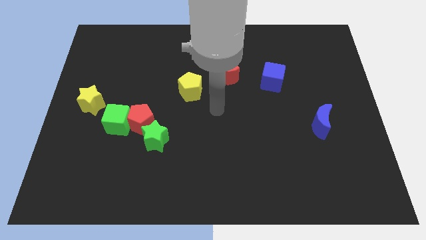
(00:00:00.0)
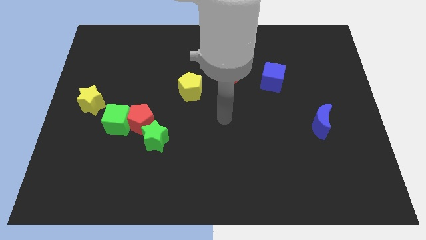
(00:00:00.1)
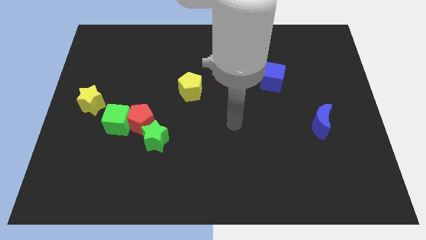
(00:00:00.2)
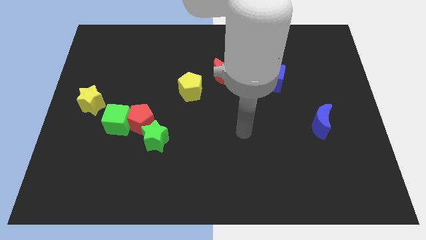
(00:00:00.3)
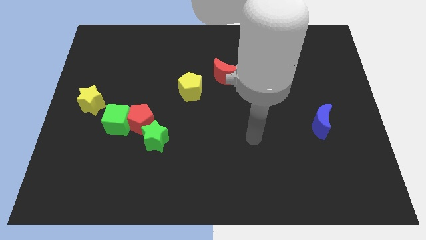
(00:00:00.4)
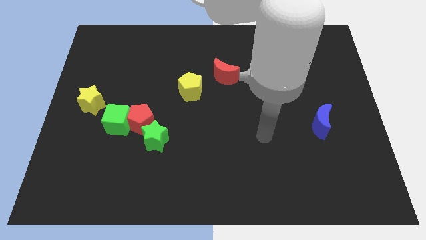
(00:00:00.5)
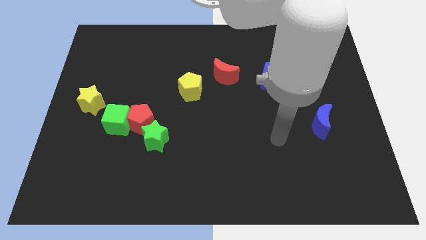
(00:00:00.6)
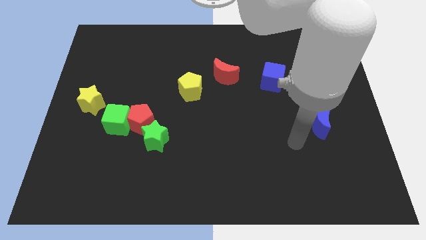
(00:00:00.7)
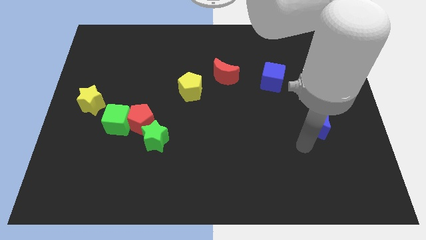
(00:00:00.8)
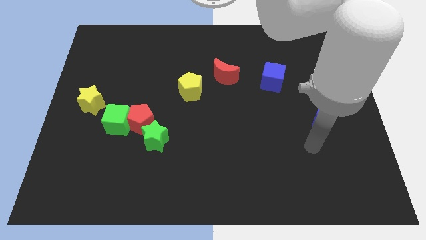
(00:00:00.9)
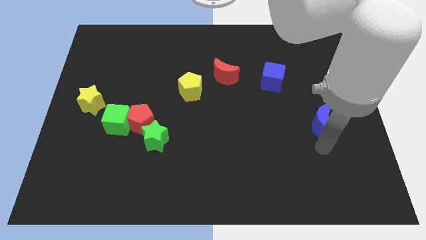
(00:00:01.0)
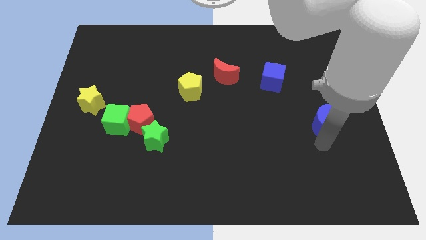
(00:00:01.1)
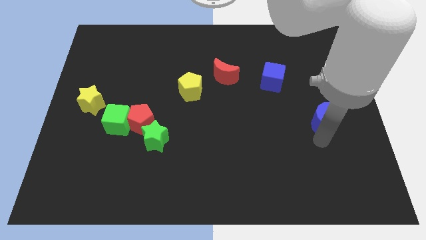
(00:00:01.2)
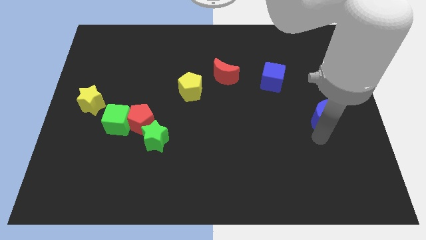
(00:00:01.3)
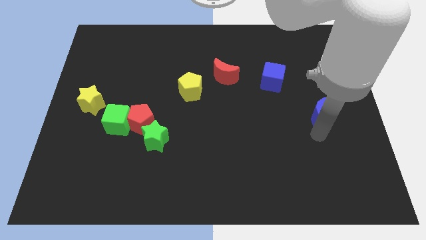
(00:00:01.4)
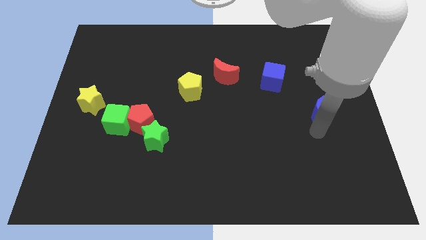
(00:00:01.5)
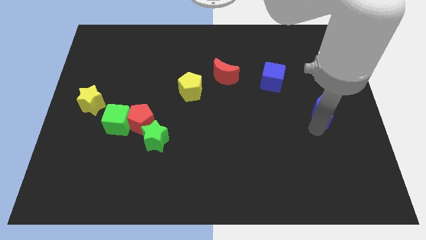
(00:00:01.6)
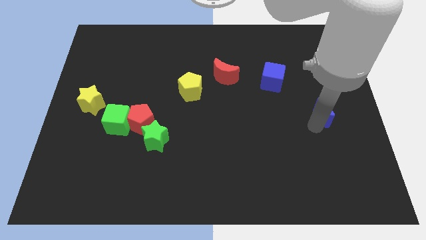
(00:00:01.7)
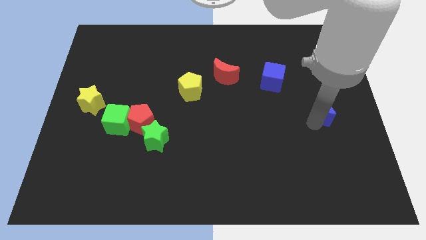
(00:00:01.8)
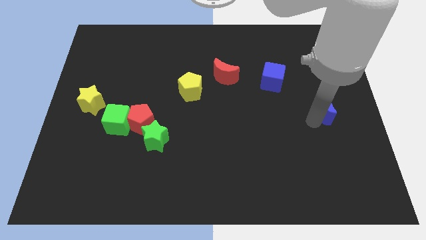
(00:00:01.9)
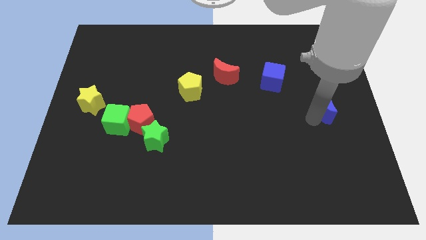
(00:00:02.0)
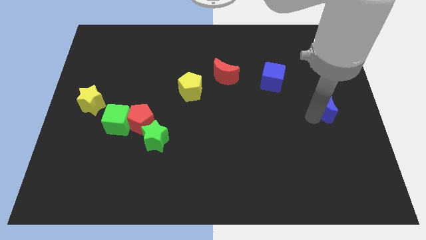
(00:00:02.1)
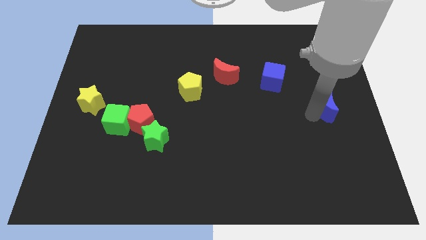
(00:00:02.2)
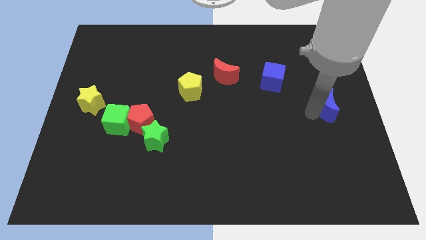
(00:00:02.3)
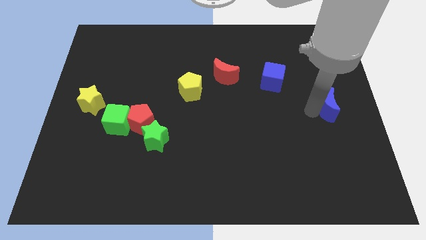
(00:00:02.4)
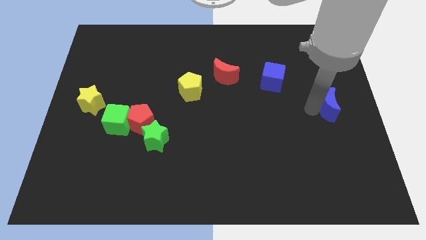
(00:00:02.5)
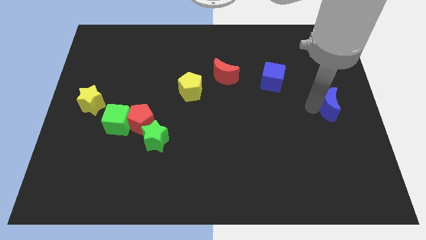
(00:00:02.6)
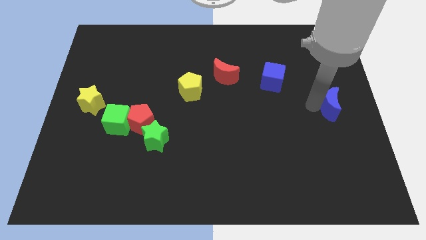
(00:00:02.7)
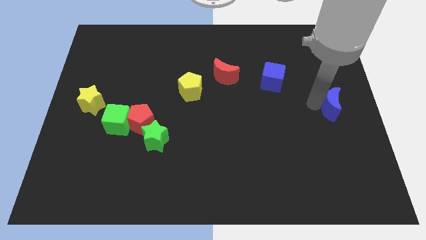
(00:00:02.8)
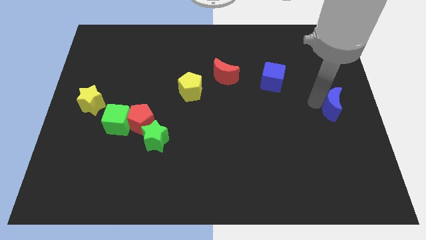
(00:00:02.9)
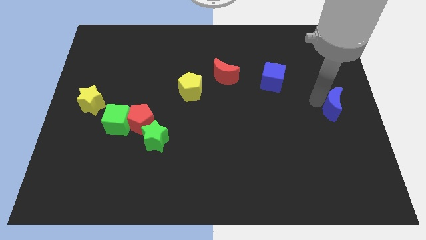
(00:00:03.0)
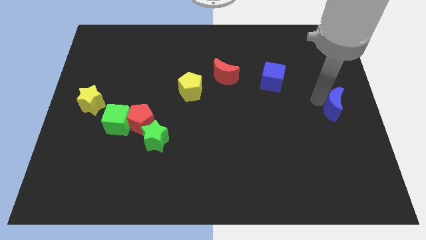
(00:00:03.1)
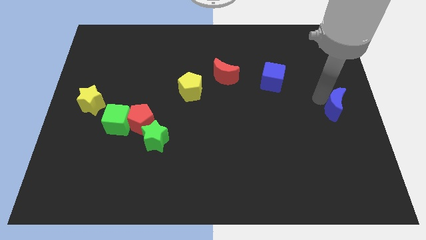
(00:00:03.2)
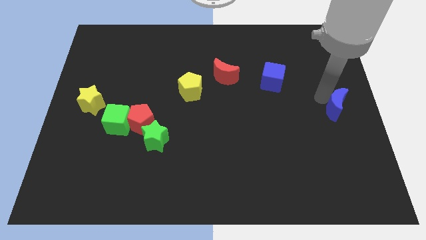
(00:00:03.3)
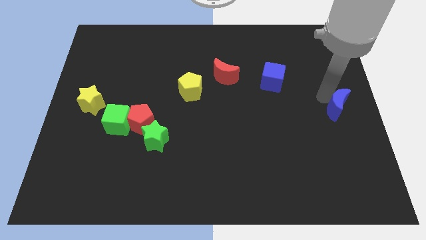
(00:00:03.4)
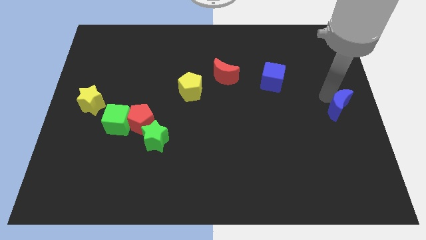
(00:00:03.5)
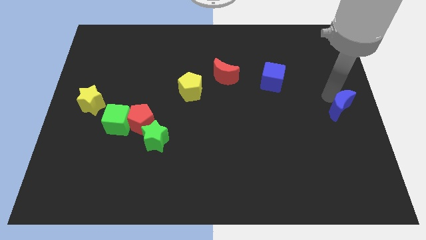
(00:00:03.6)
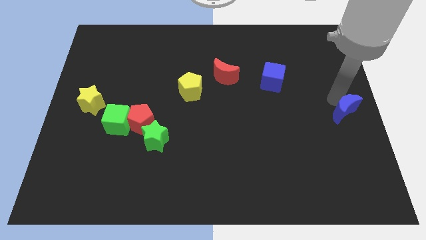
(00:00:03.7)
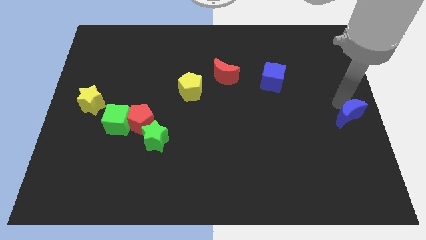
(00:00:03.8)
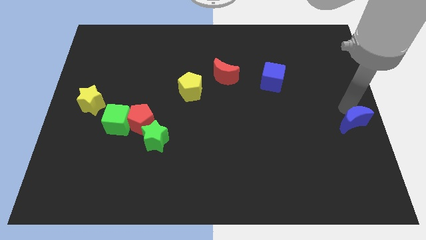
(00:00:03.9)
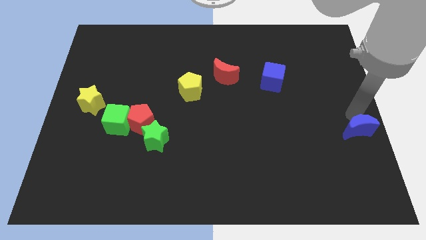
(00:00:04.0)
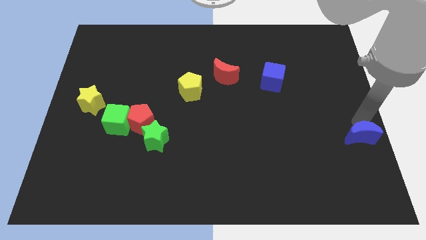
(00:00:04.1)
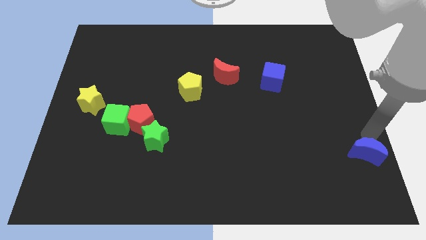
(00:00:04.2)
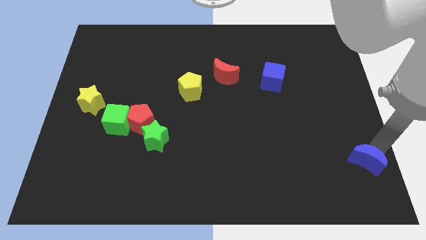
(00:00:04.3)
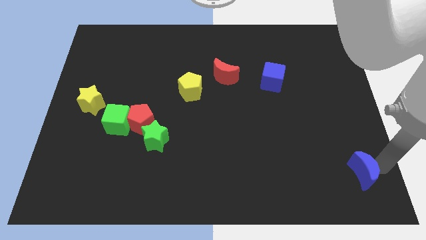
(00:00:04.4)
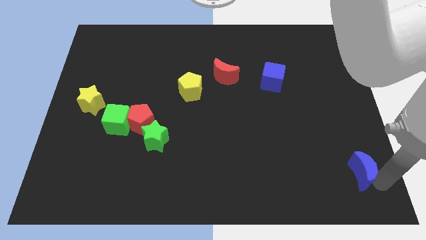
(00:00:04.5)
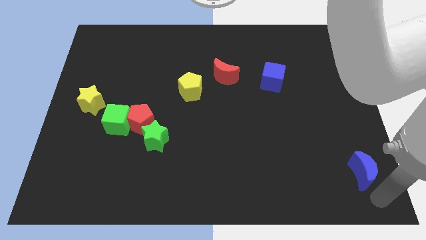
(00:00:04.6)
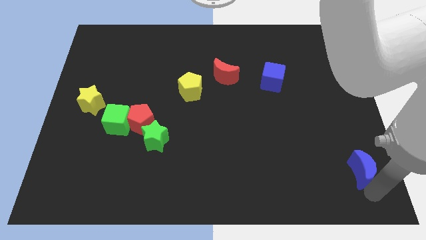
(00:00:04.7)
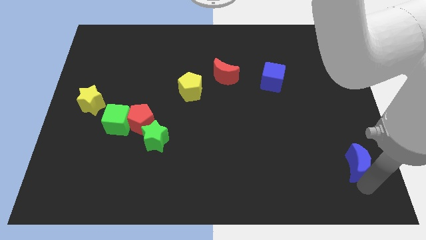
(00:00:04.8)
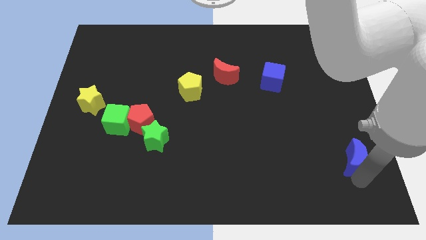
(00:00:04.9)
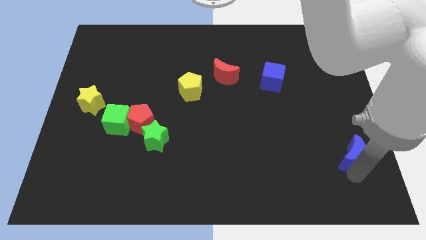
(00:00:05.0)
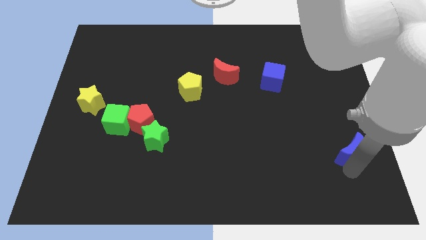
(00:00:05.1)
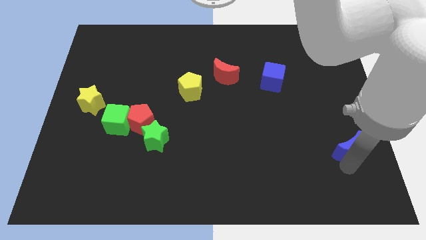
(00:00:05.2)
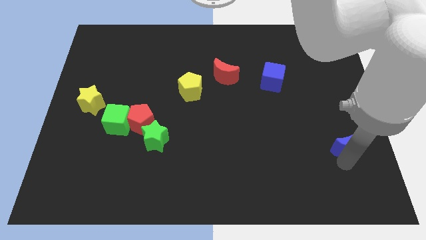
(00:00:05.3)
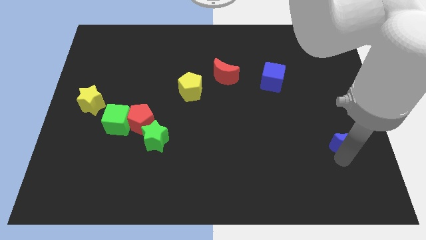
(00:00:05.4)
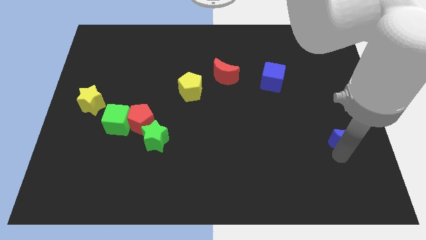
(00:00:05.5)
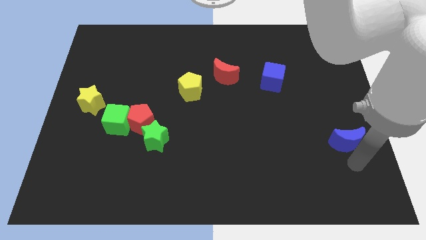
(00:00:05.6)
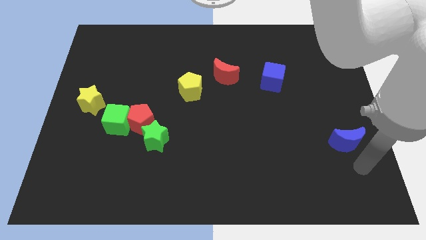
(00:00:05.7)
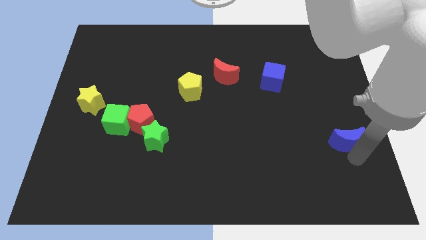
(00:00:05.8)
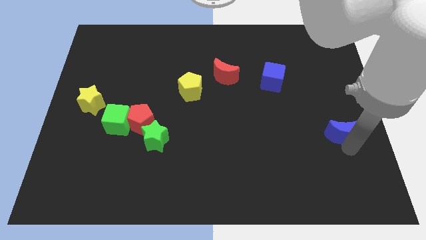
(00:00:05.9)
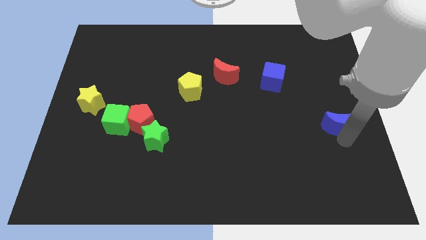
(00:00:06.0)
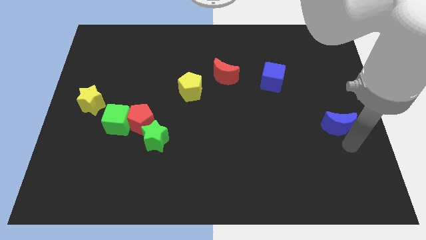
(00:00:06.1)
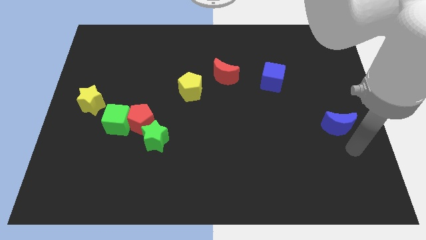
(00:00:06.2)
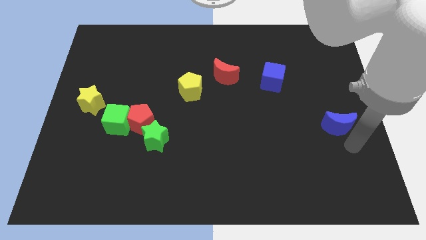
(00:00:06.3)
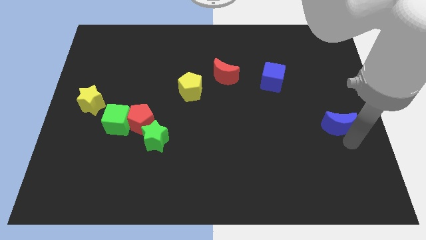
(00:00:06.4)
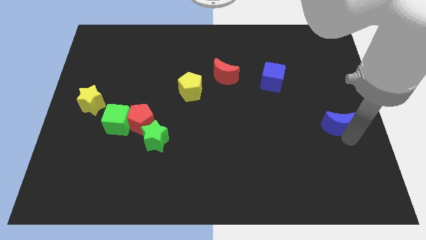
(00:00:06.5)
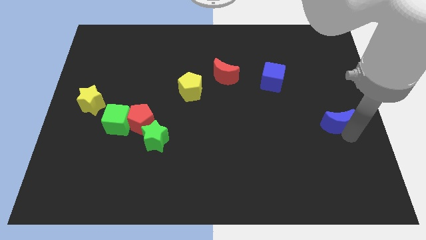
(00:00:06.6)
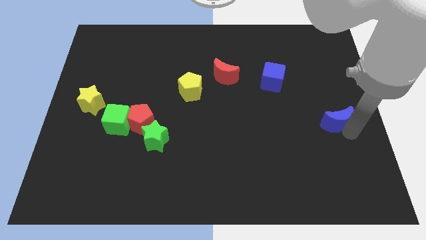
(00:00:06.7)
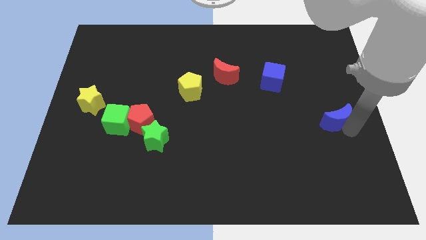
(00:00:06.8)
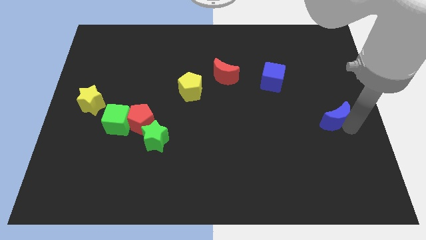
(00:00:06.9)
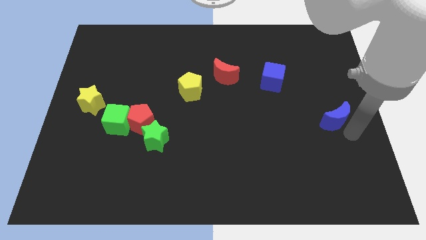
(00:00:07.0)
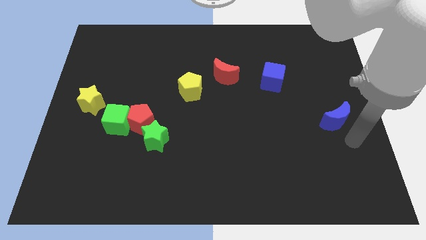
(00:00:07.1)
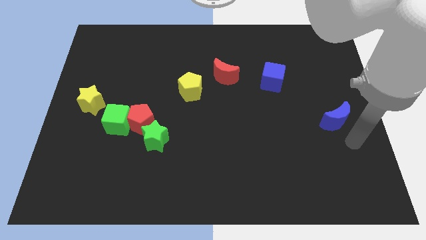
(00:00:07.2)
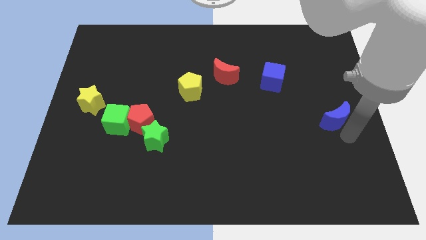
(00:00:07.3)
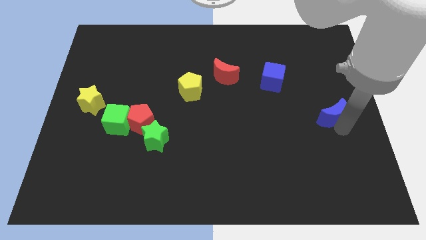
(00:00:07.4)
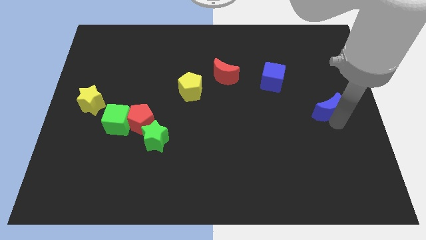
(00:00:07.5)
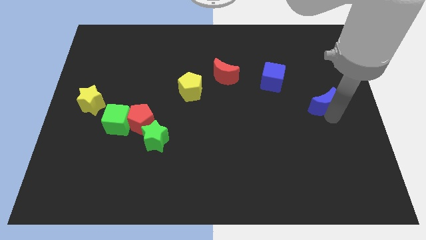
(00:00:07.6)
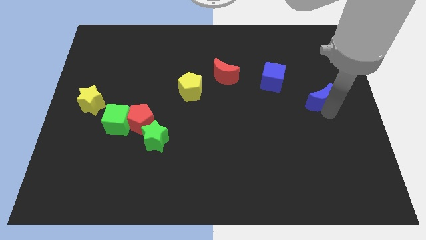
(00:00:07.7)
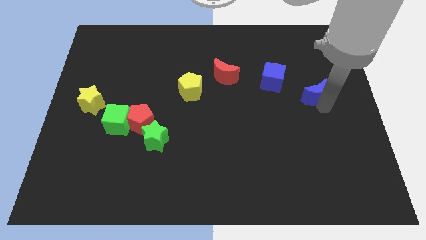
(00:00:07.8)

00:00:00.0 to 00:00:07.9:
slightly slide the blue moon up
